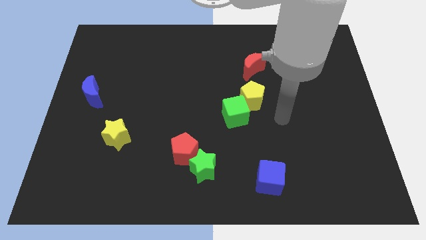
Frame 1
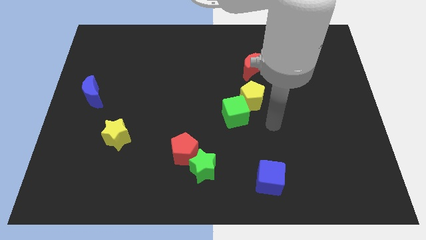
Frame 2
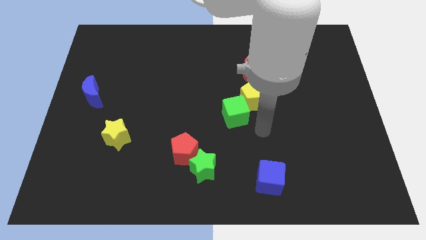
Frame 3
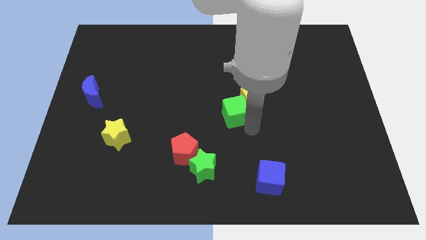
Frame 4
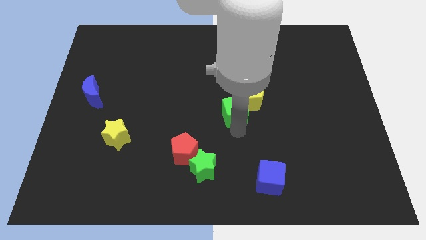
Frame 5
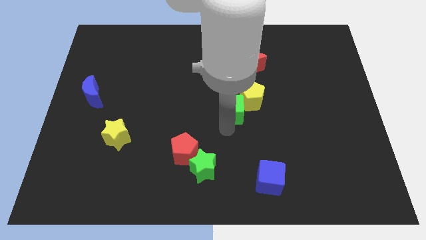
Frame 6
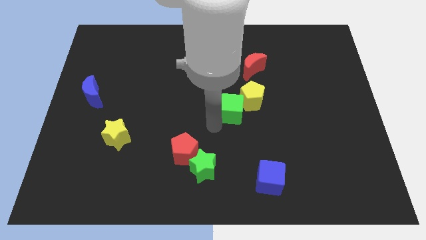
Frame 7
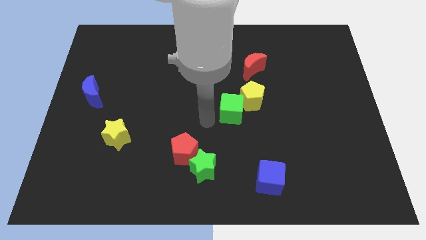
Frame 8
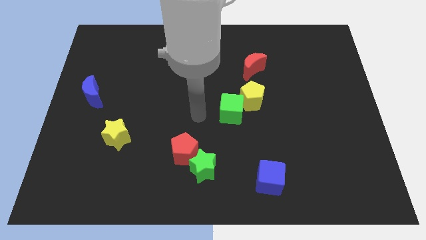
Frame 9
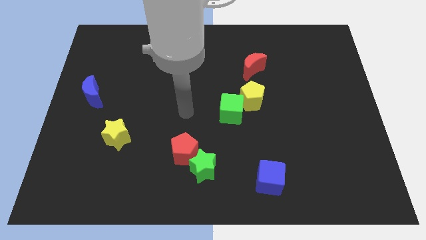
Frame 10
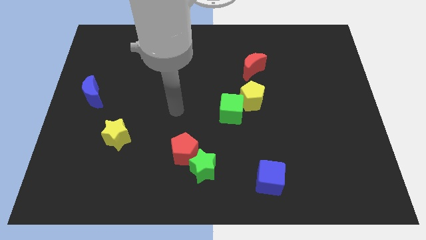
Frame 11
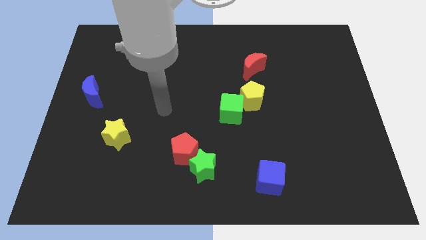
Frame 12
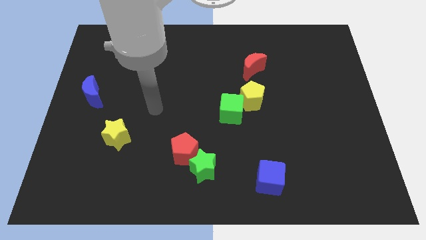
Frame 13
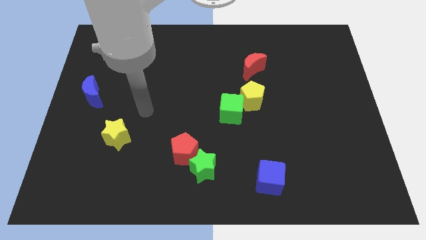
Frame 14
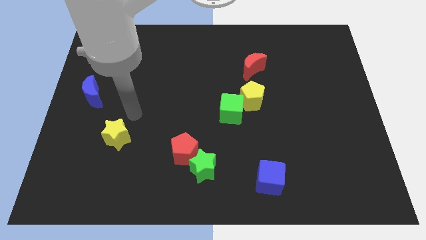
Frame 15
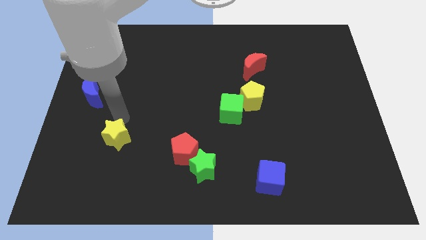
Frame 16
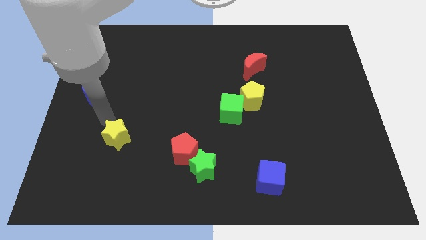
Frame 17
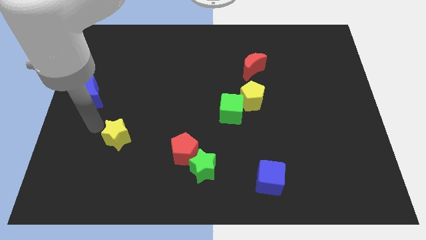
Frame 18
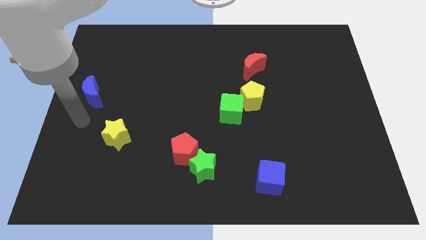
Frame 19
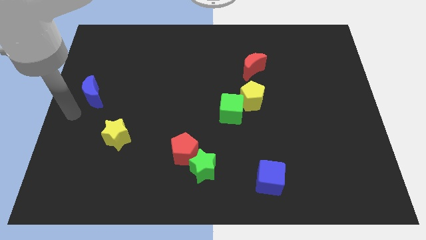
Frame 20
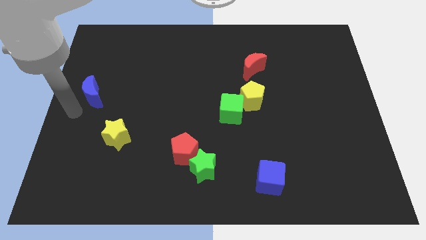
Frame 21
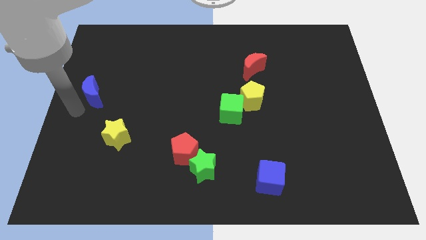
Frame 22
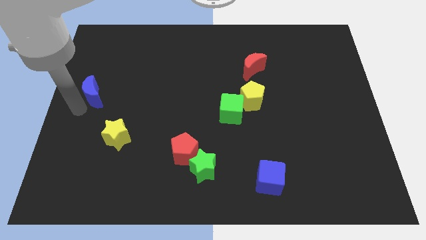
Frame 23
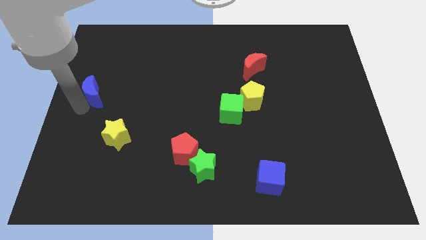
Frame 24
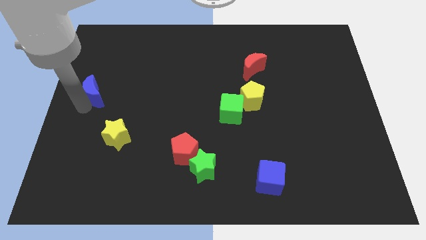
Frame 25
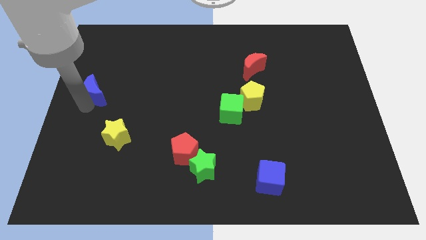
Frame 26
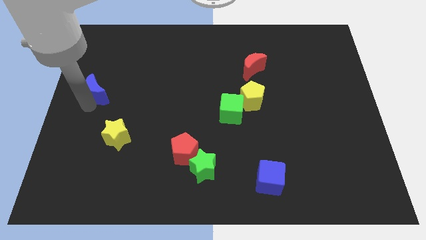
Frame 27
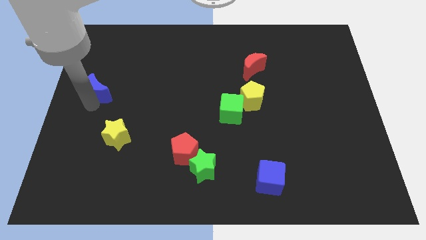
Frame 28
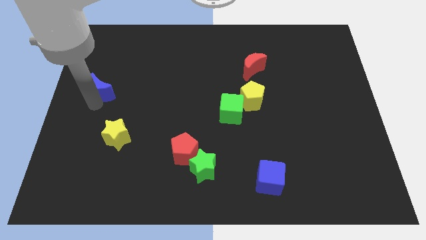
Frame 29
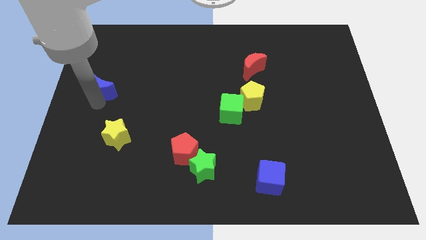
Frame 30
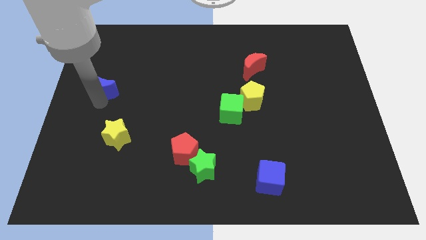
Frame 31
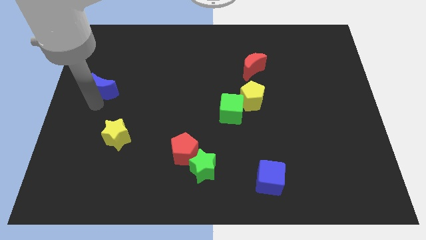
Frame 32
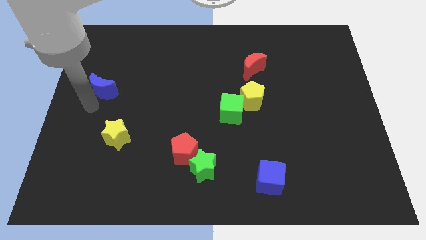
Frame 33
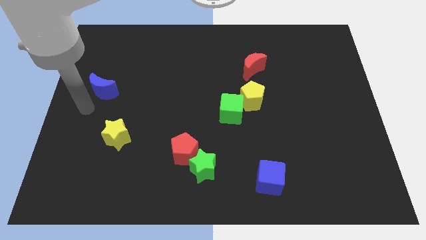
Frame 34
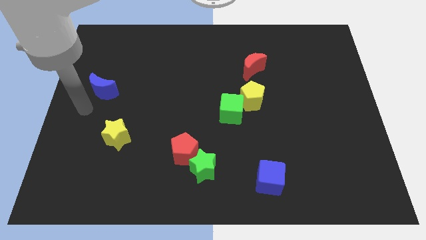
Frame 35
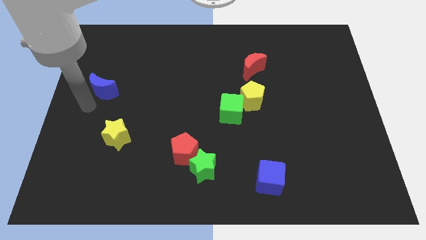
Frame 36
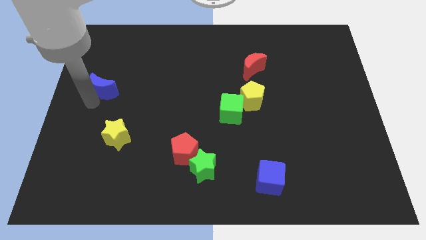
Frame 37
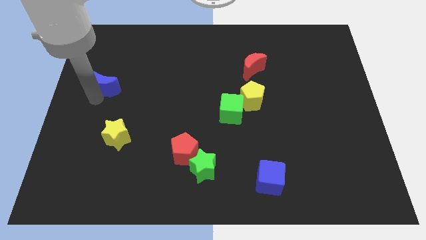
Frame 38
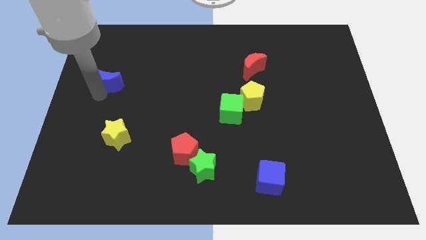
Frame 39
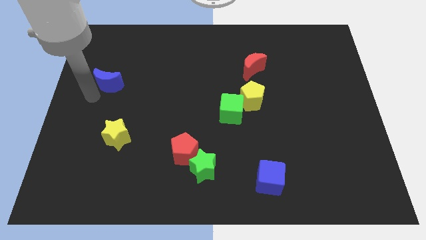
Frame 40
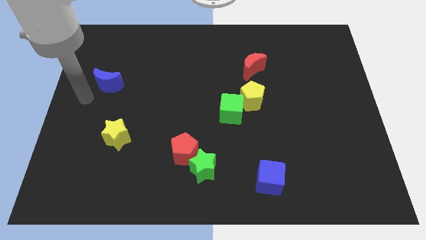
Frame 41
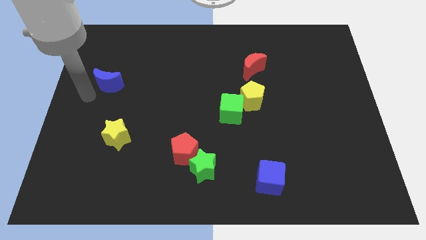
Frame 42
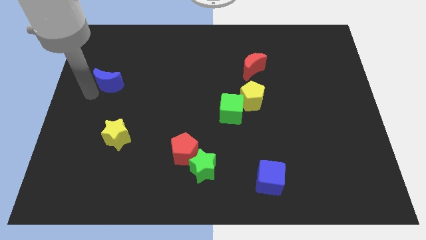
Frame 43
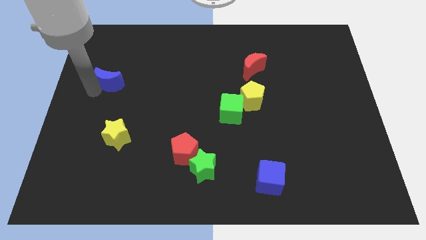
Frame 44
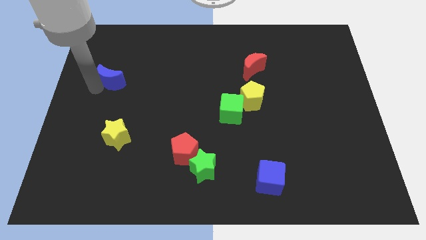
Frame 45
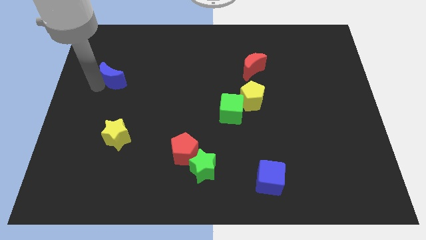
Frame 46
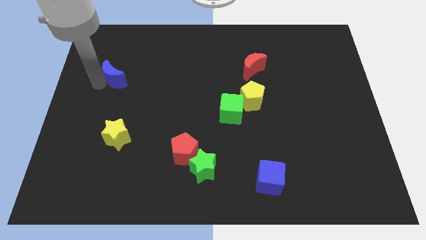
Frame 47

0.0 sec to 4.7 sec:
slightly slide the blue moon diagonally upwards and to the right

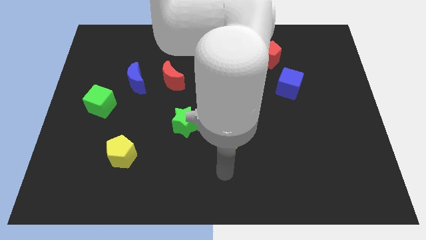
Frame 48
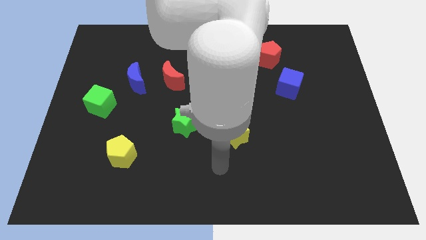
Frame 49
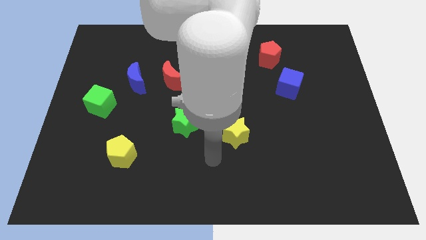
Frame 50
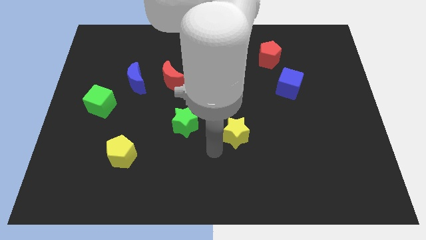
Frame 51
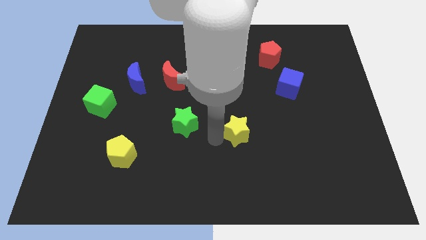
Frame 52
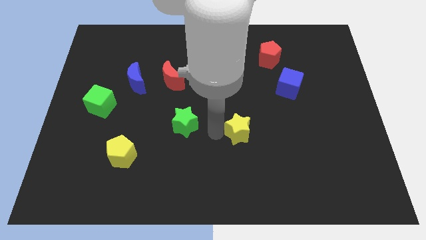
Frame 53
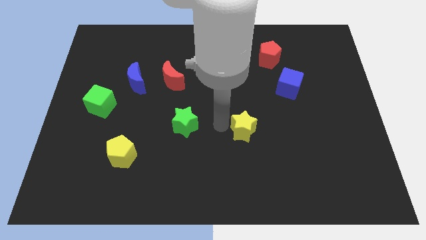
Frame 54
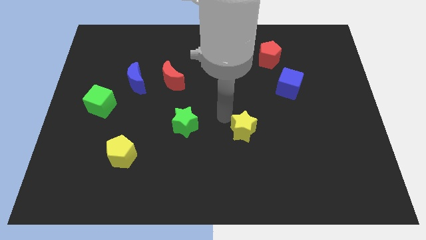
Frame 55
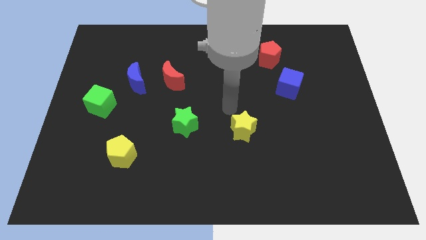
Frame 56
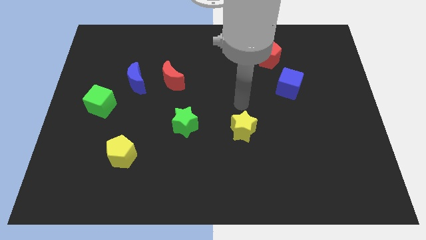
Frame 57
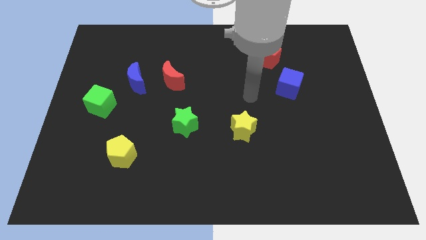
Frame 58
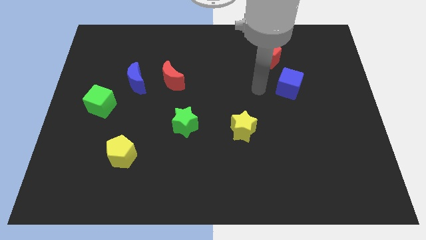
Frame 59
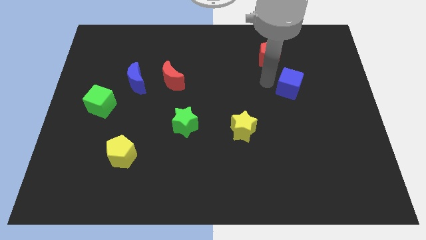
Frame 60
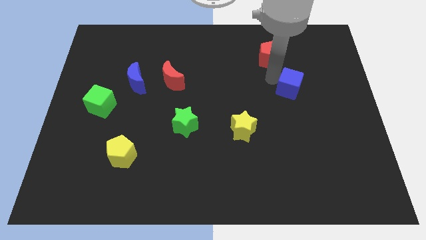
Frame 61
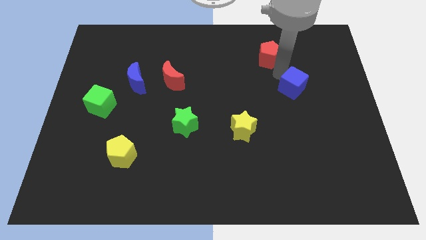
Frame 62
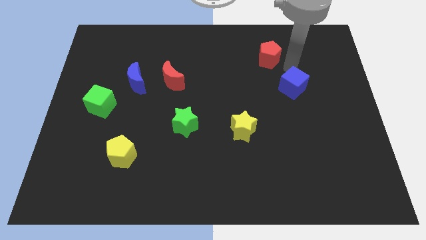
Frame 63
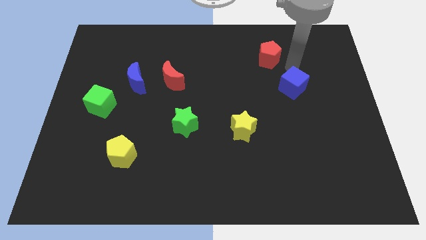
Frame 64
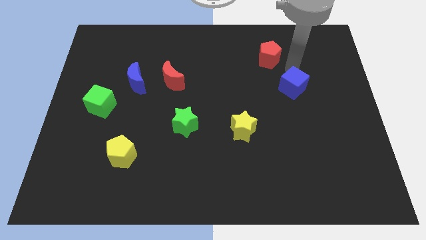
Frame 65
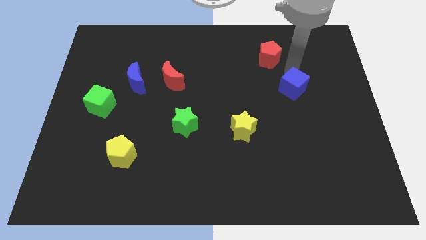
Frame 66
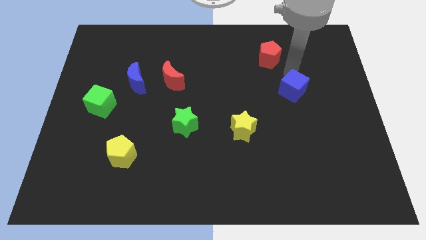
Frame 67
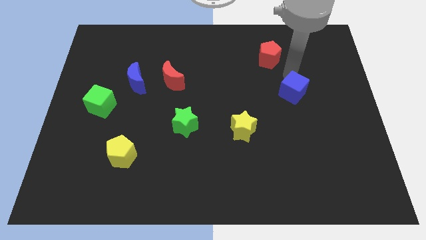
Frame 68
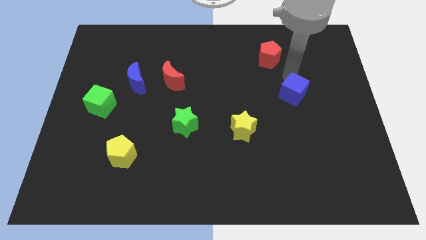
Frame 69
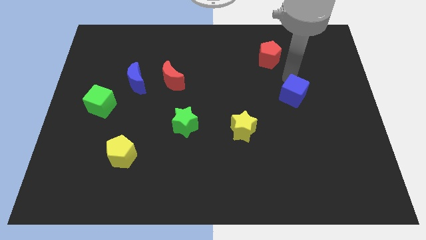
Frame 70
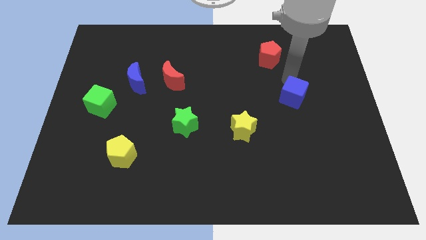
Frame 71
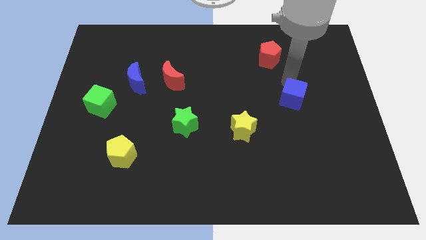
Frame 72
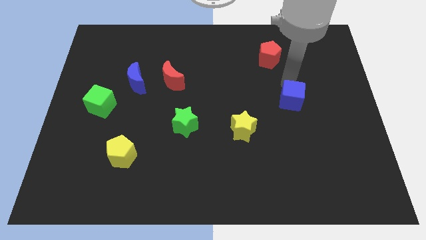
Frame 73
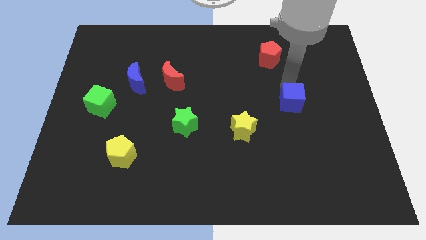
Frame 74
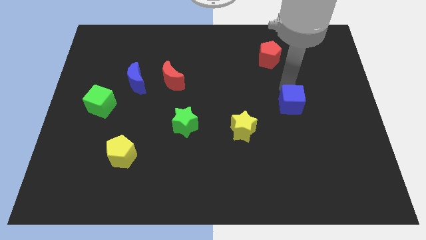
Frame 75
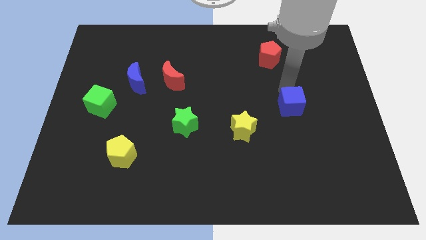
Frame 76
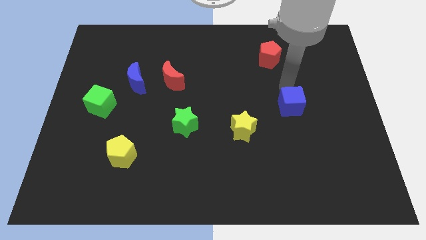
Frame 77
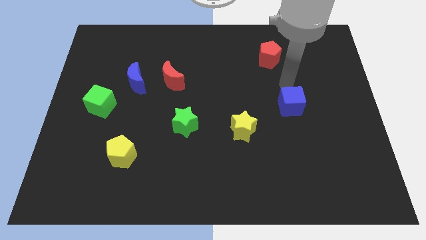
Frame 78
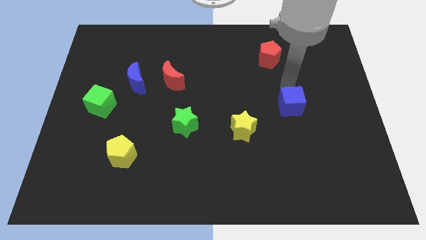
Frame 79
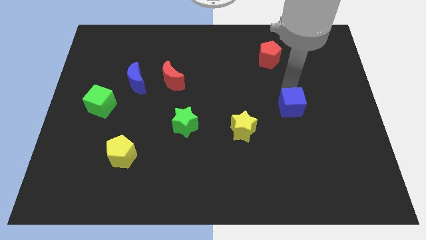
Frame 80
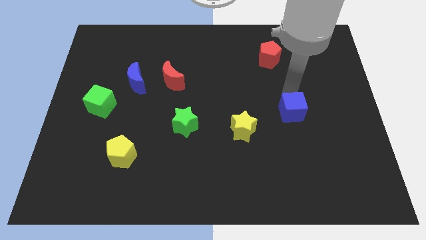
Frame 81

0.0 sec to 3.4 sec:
slightly slide the blue cube down
